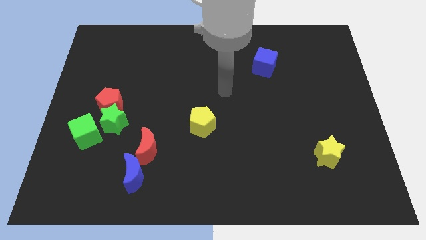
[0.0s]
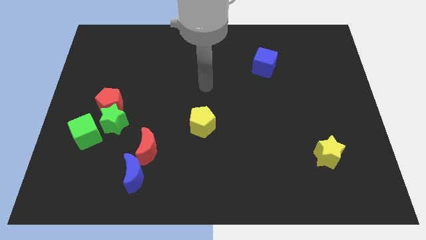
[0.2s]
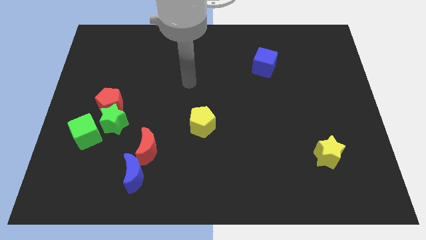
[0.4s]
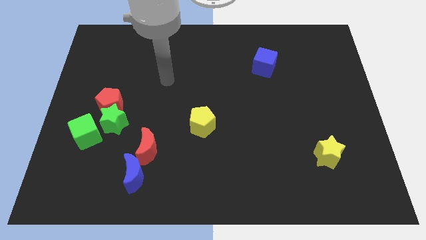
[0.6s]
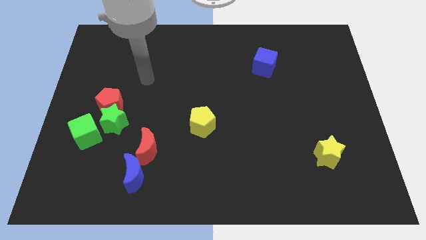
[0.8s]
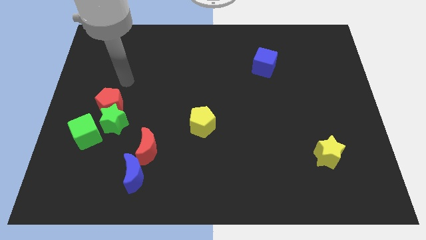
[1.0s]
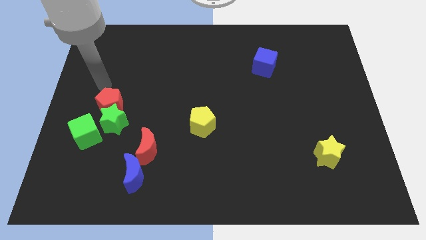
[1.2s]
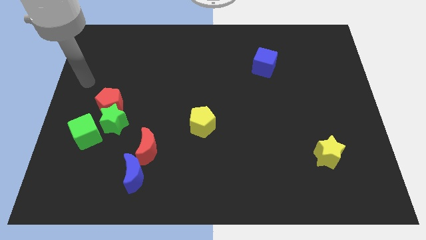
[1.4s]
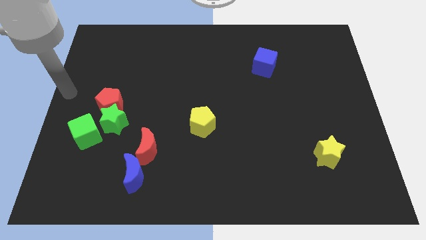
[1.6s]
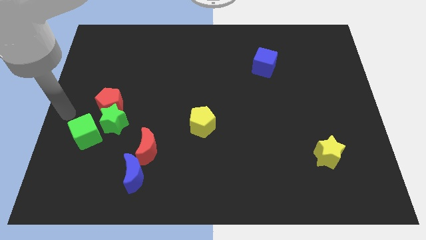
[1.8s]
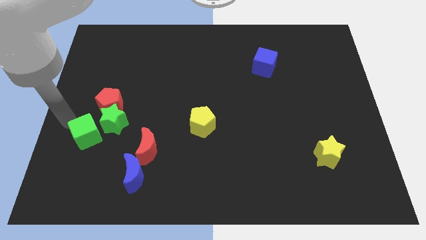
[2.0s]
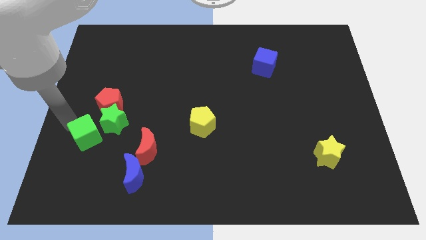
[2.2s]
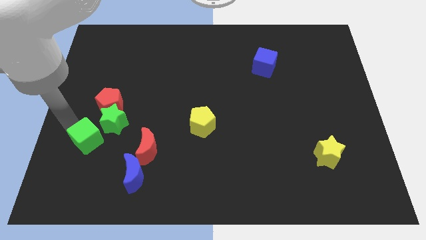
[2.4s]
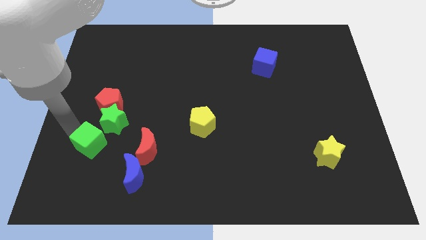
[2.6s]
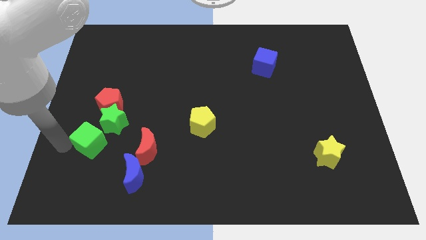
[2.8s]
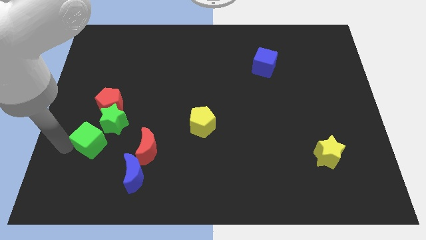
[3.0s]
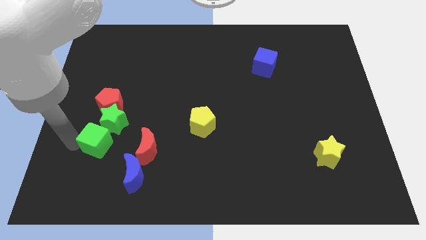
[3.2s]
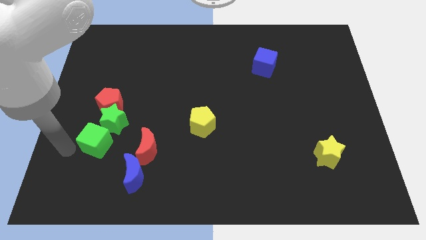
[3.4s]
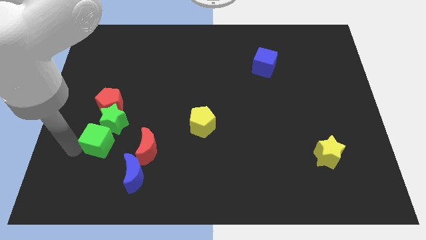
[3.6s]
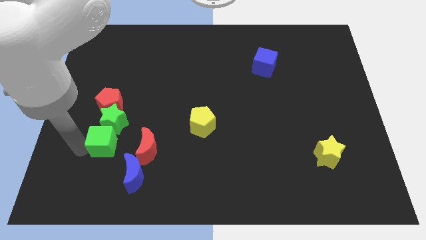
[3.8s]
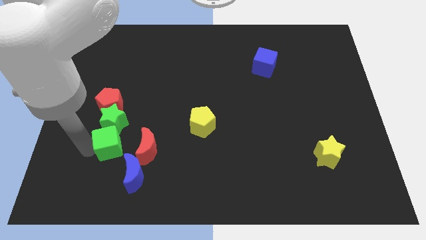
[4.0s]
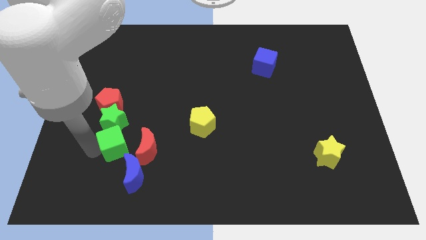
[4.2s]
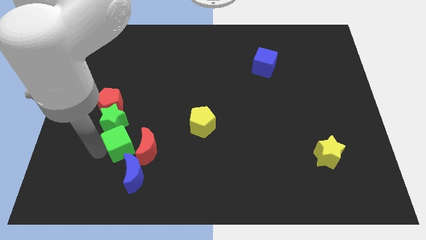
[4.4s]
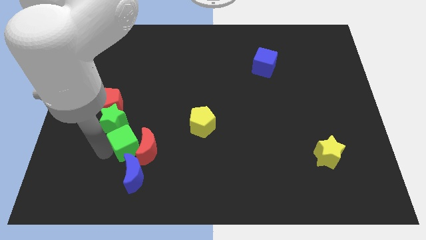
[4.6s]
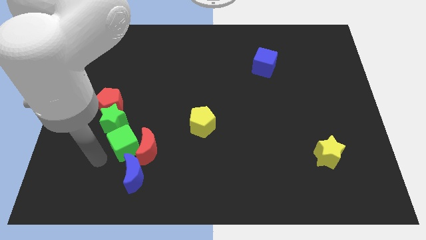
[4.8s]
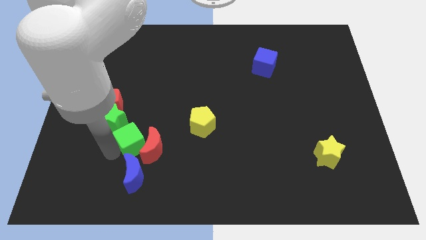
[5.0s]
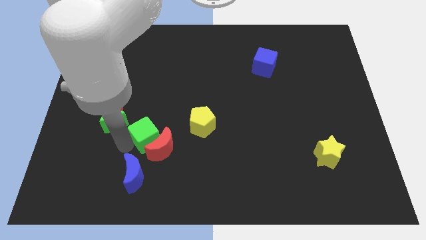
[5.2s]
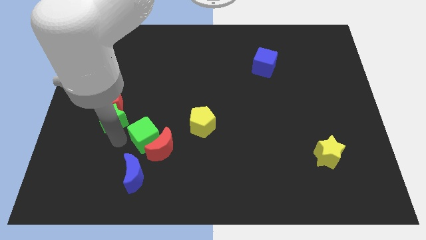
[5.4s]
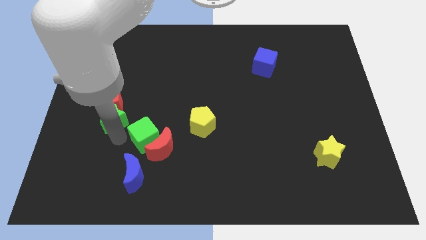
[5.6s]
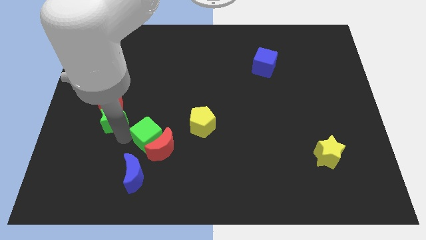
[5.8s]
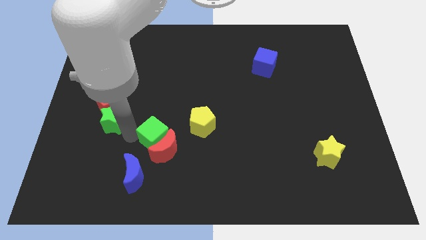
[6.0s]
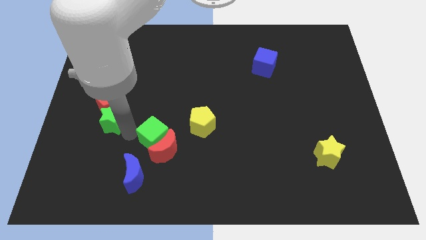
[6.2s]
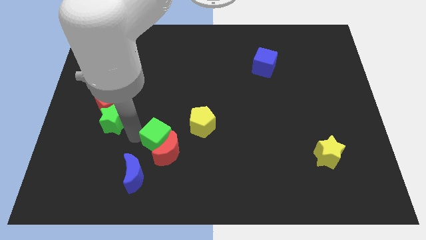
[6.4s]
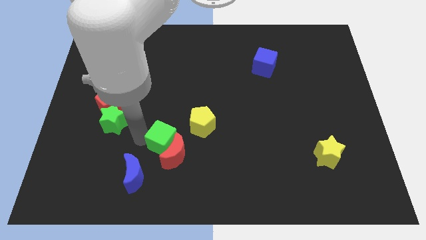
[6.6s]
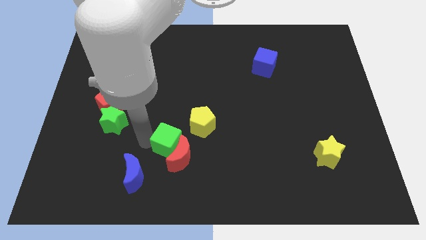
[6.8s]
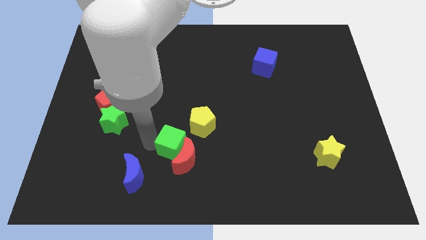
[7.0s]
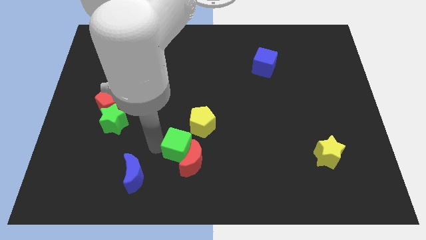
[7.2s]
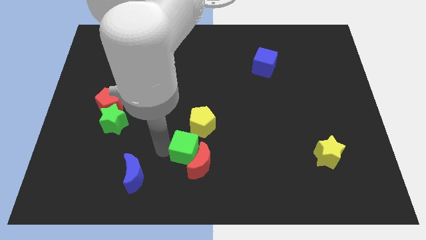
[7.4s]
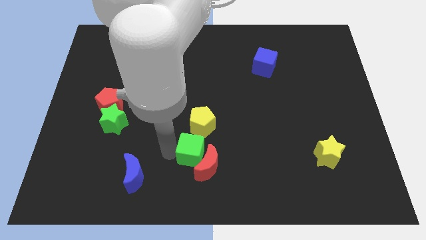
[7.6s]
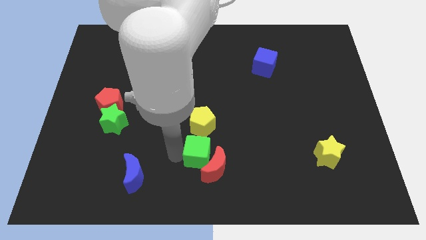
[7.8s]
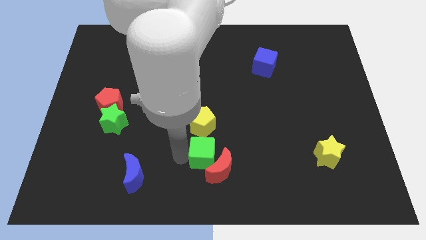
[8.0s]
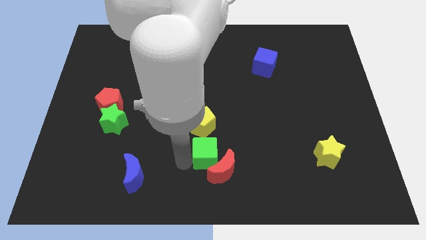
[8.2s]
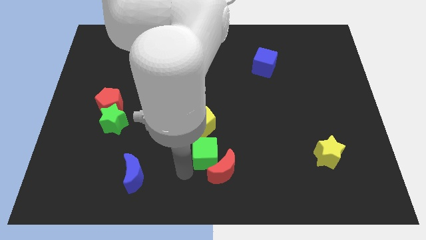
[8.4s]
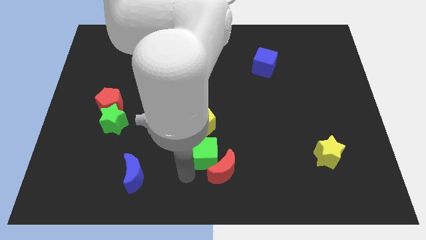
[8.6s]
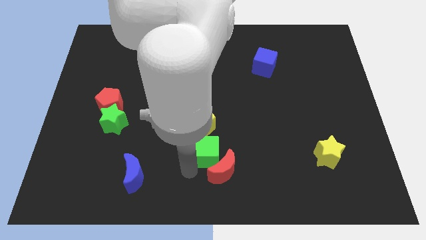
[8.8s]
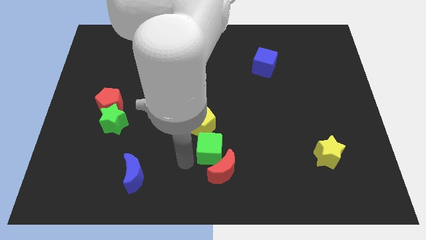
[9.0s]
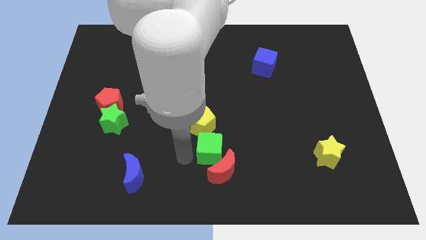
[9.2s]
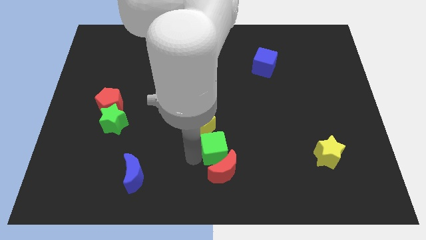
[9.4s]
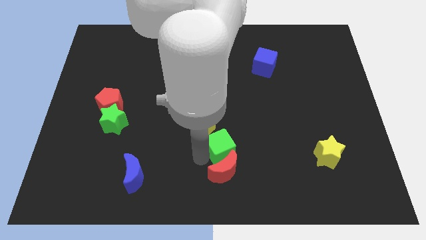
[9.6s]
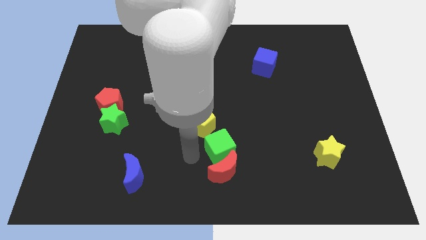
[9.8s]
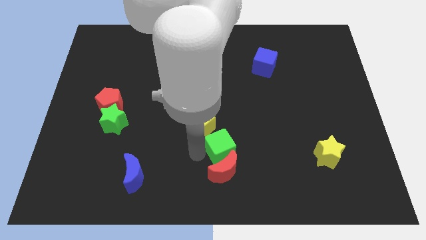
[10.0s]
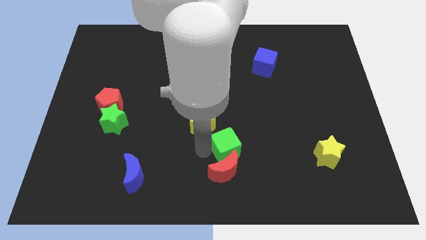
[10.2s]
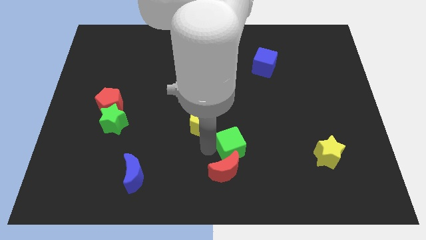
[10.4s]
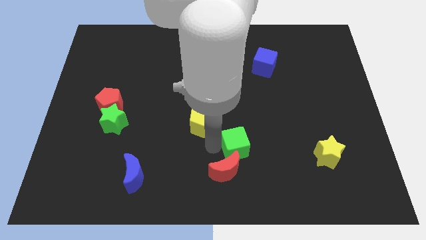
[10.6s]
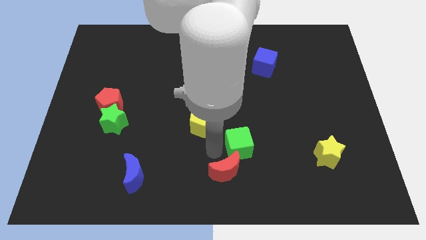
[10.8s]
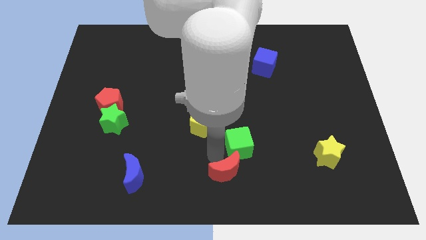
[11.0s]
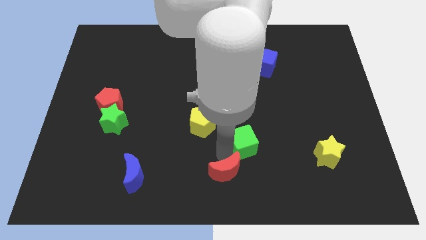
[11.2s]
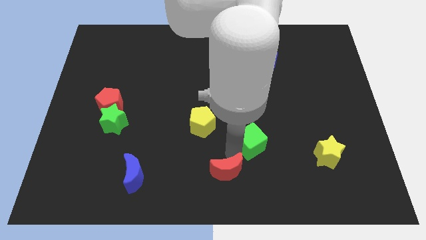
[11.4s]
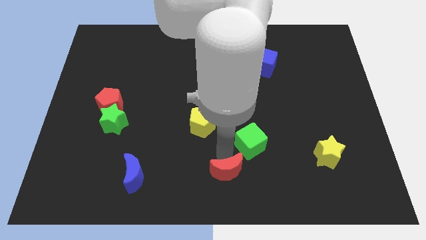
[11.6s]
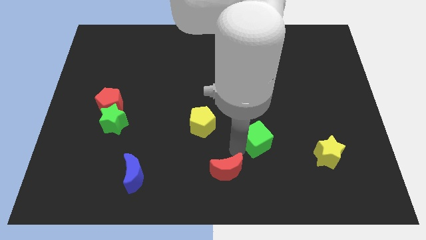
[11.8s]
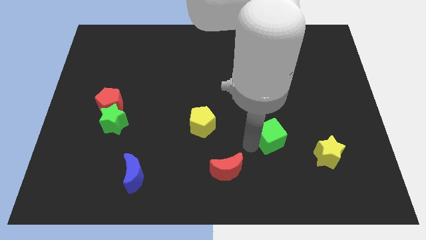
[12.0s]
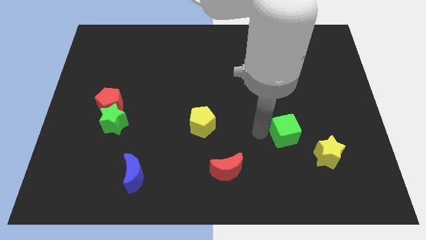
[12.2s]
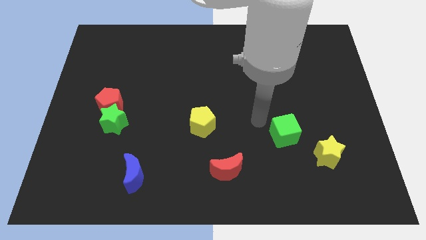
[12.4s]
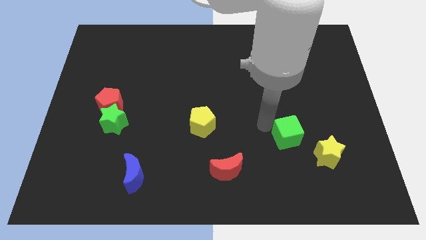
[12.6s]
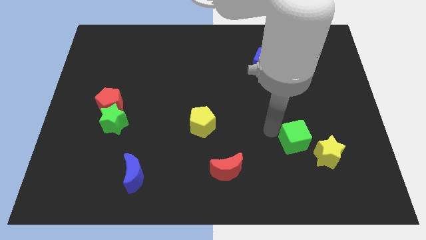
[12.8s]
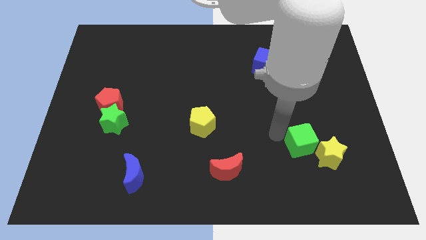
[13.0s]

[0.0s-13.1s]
slide the green cube next to the yellow star

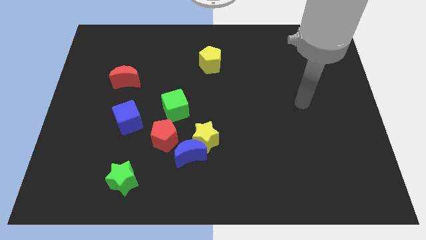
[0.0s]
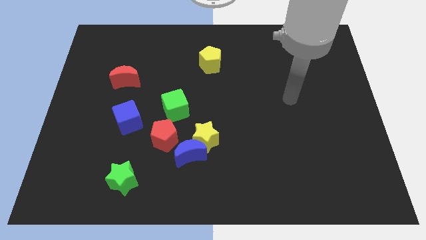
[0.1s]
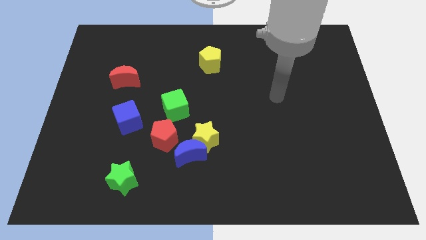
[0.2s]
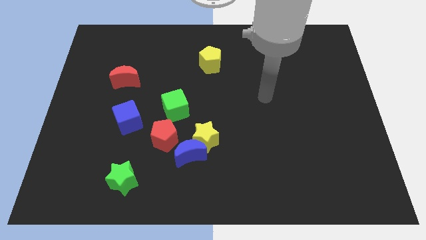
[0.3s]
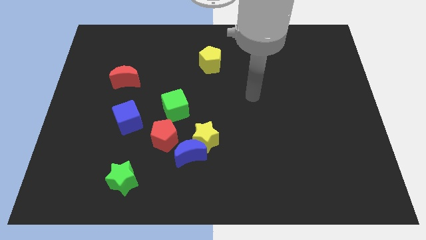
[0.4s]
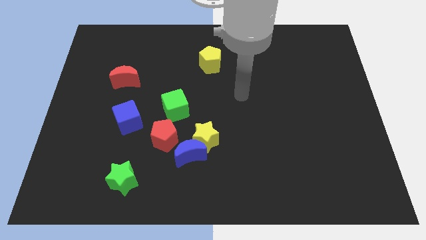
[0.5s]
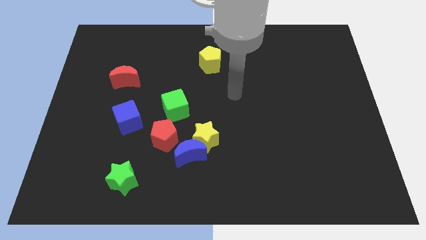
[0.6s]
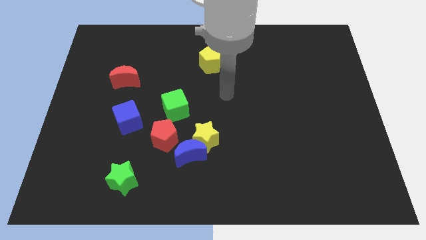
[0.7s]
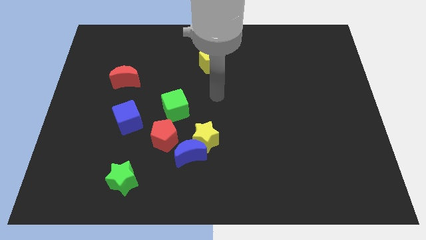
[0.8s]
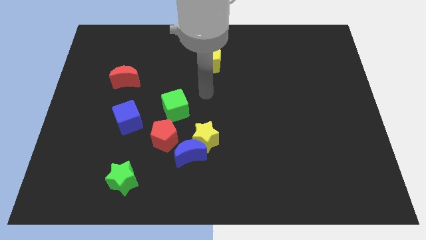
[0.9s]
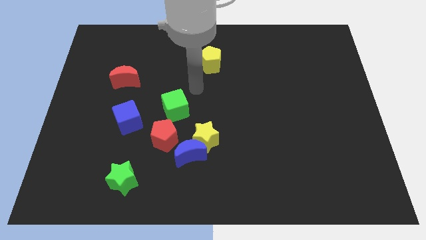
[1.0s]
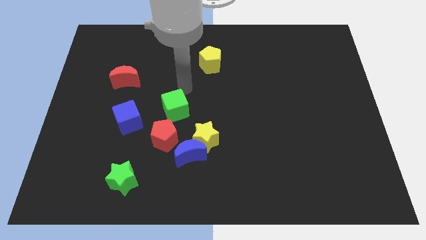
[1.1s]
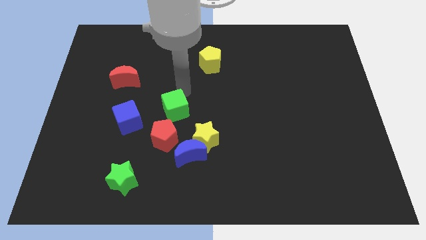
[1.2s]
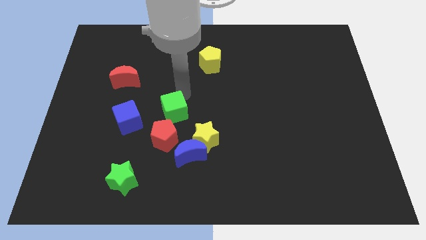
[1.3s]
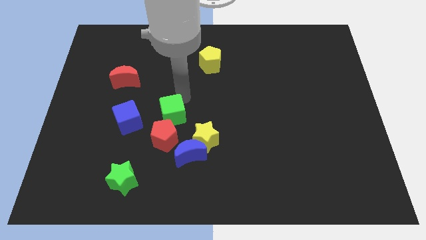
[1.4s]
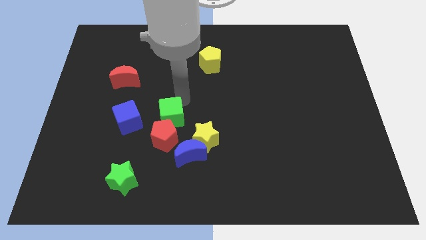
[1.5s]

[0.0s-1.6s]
push the green cube close to the red pentagon
